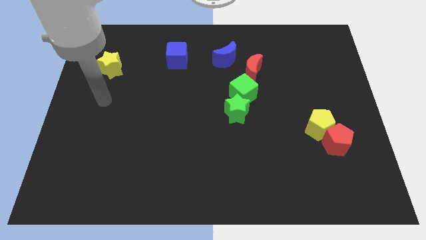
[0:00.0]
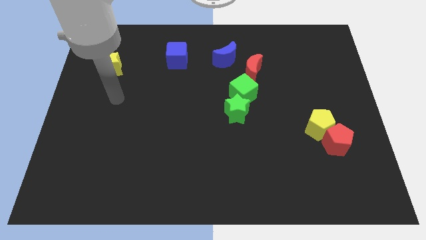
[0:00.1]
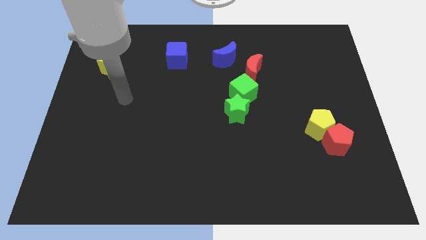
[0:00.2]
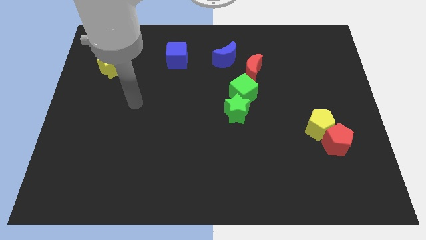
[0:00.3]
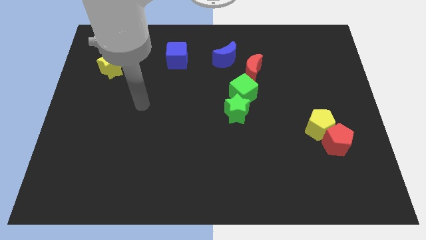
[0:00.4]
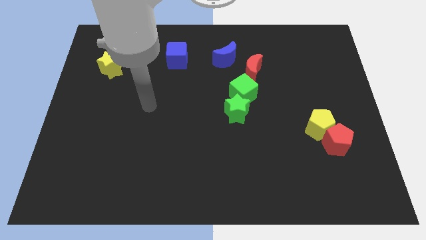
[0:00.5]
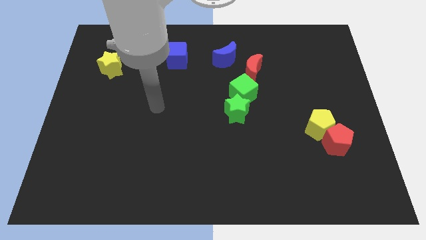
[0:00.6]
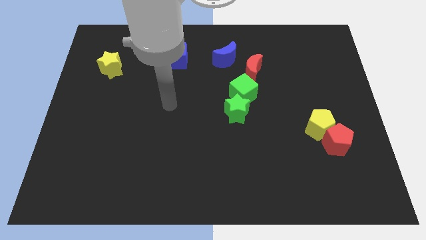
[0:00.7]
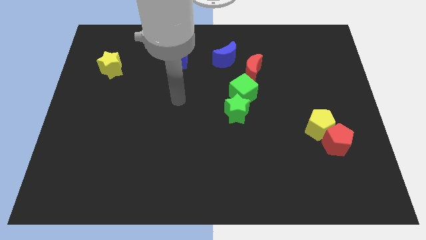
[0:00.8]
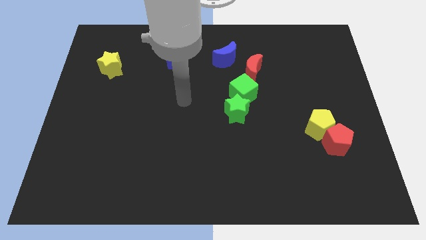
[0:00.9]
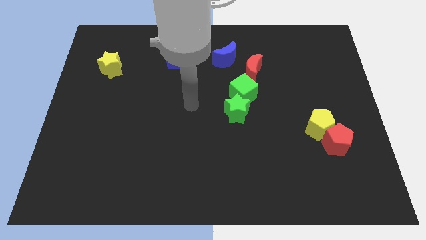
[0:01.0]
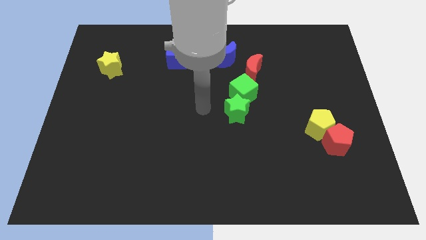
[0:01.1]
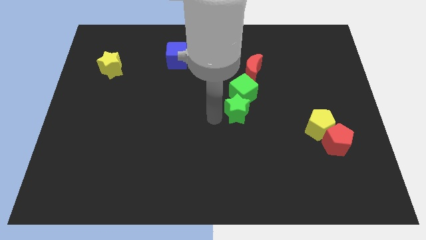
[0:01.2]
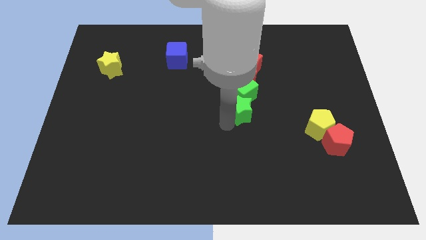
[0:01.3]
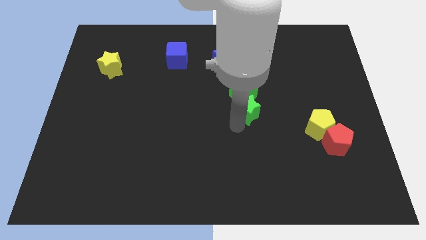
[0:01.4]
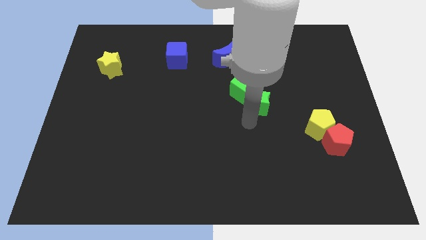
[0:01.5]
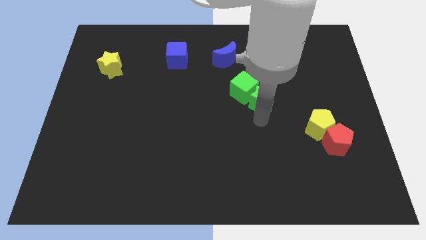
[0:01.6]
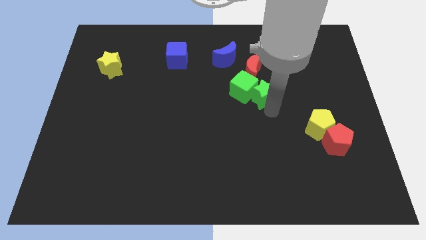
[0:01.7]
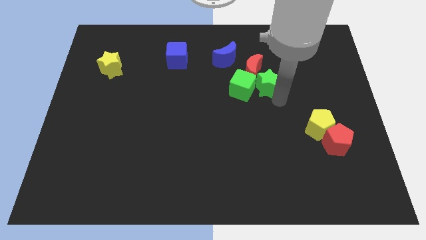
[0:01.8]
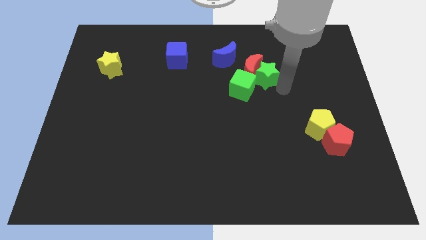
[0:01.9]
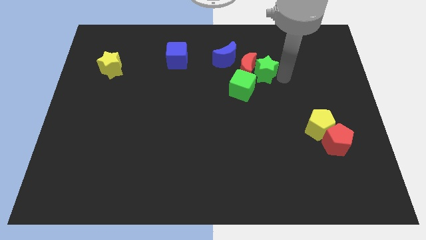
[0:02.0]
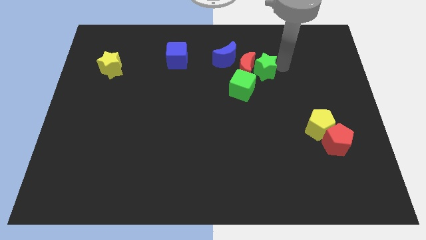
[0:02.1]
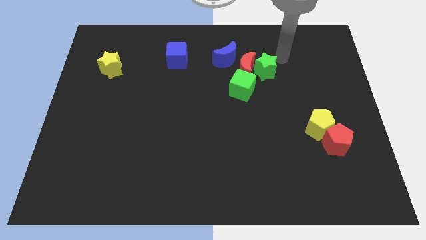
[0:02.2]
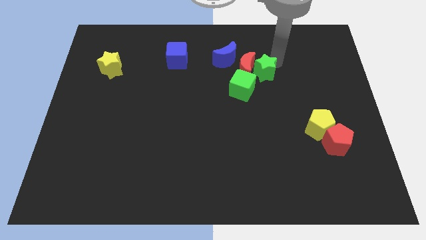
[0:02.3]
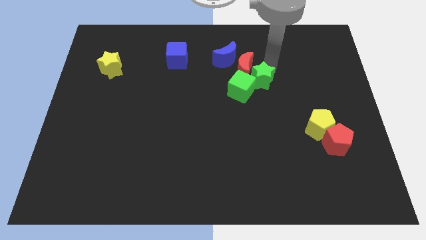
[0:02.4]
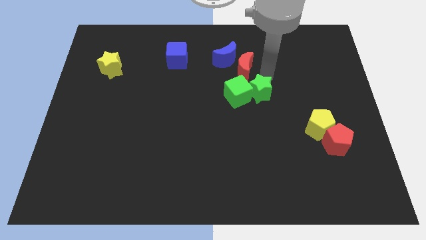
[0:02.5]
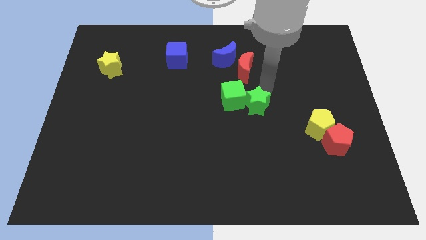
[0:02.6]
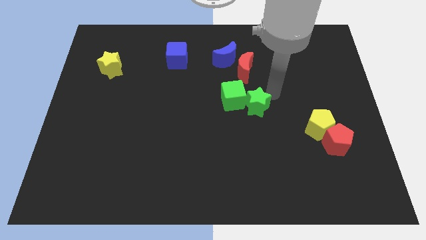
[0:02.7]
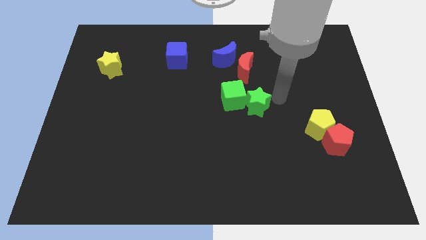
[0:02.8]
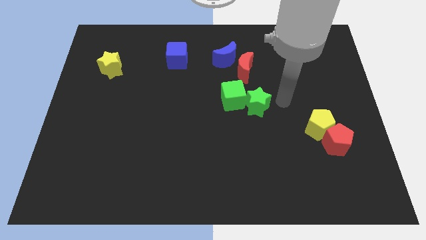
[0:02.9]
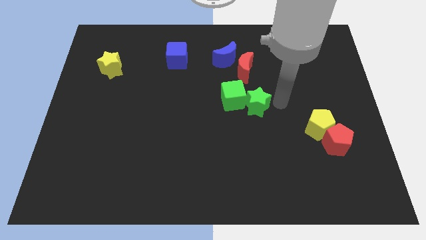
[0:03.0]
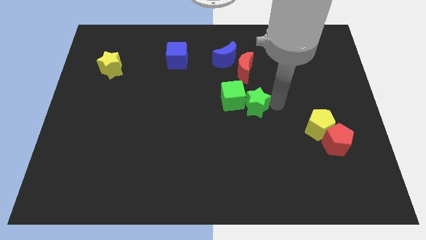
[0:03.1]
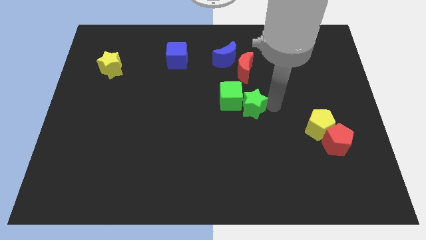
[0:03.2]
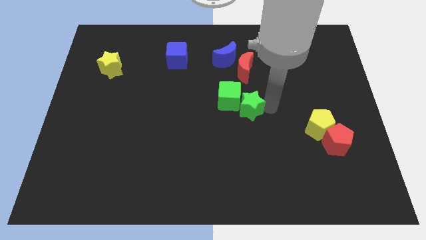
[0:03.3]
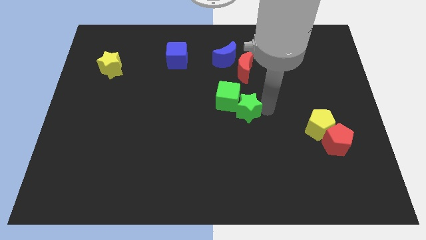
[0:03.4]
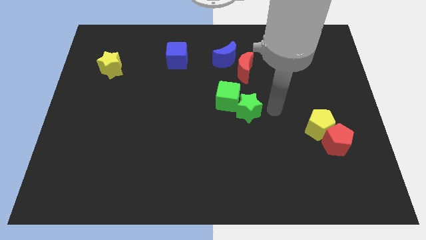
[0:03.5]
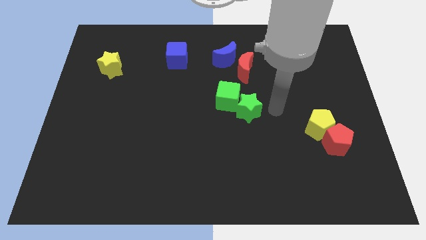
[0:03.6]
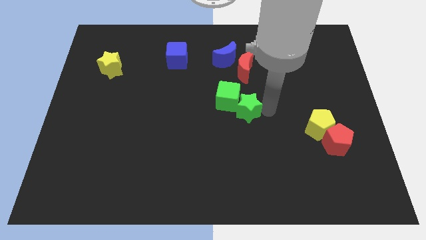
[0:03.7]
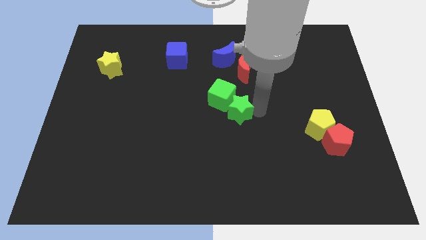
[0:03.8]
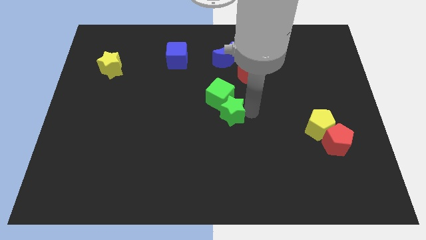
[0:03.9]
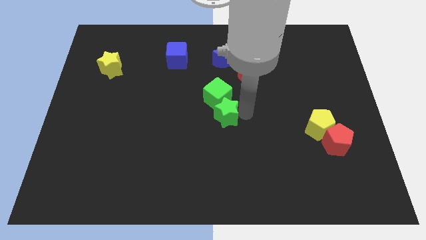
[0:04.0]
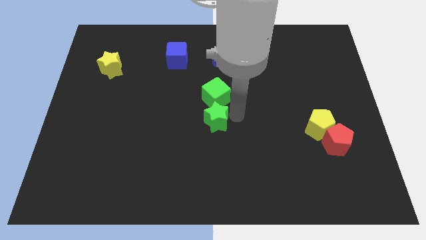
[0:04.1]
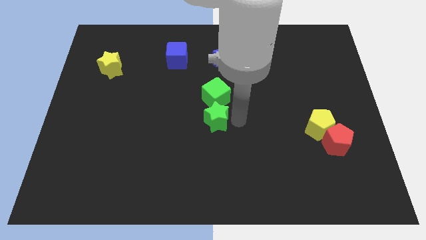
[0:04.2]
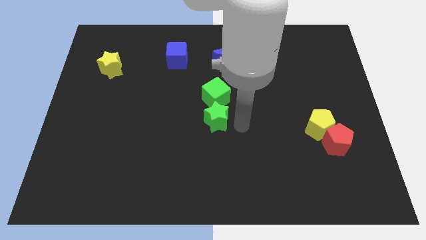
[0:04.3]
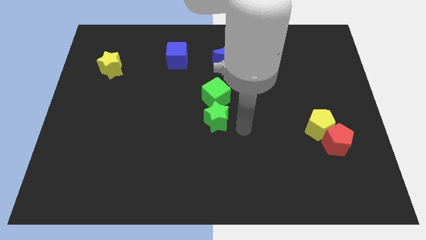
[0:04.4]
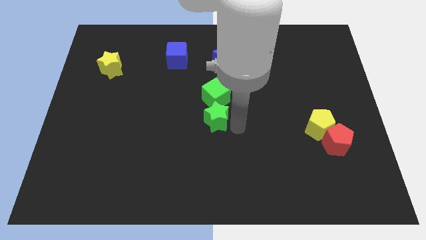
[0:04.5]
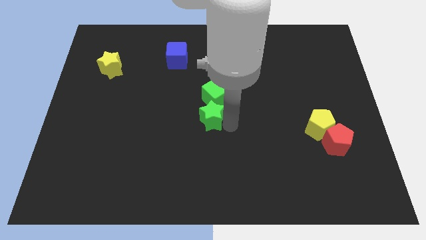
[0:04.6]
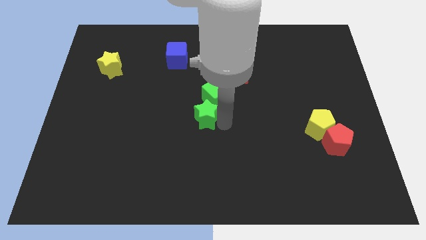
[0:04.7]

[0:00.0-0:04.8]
slightly push the green star left

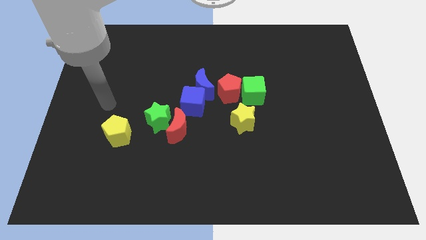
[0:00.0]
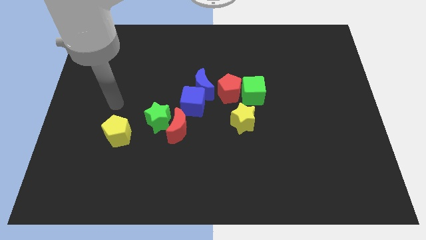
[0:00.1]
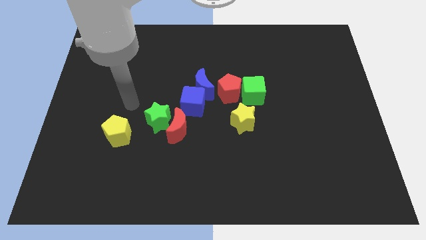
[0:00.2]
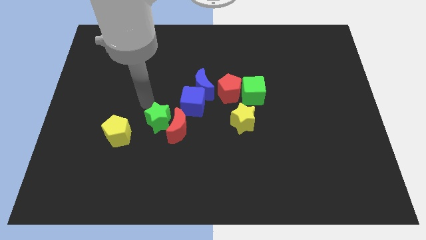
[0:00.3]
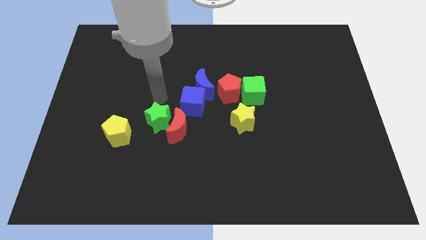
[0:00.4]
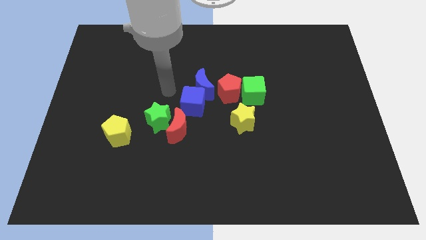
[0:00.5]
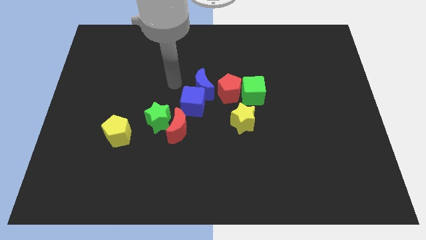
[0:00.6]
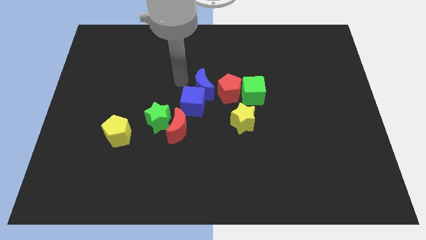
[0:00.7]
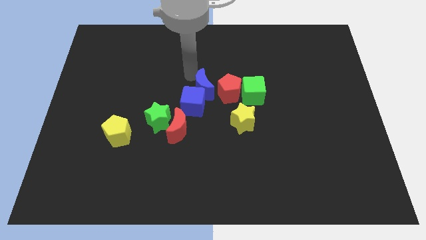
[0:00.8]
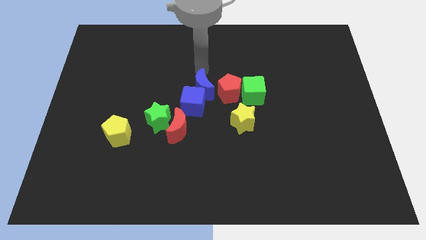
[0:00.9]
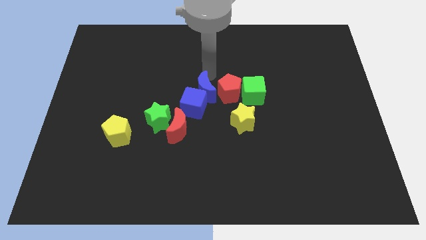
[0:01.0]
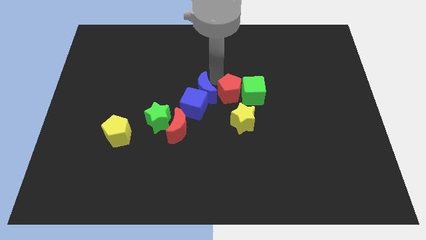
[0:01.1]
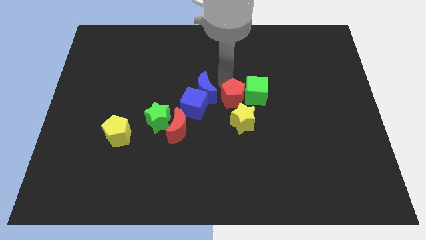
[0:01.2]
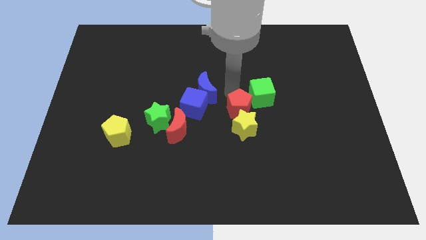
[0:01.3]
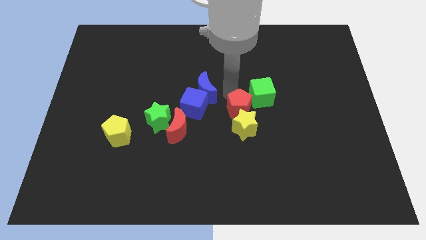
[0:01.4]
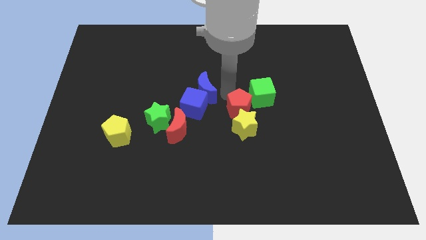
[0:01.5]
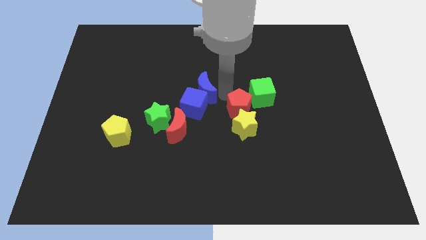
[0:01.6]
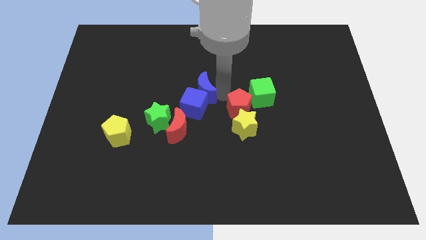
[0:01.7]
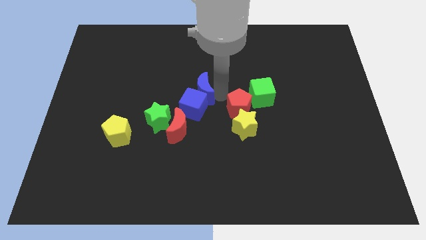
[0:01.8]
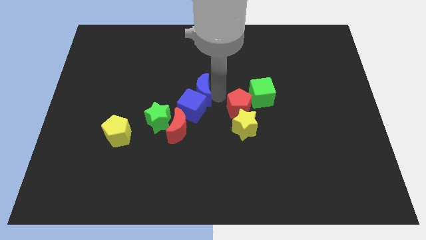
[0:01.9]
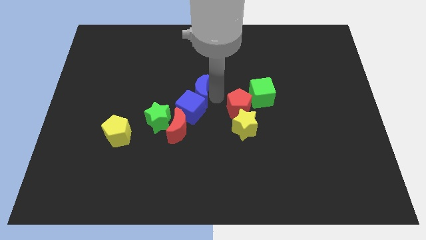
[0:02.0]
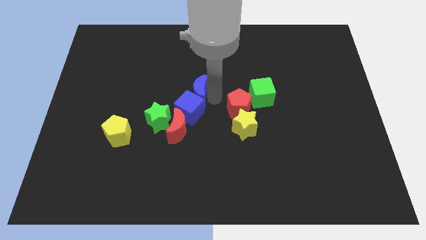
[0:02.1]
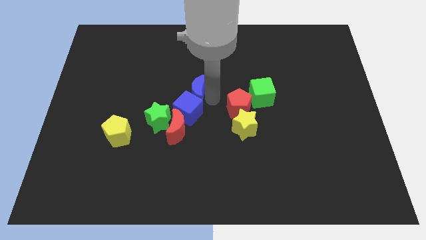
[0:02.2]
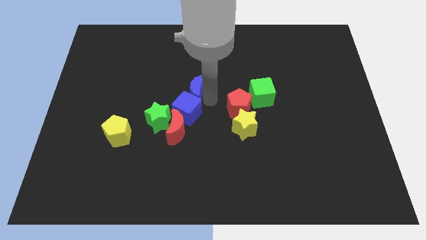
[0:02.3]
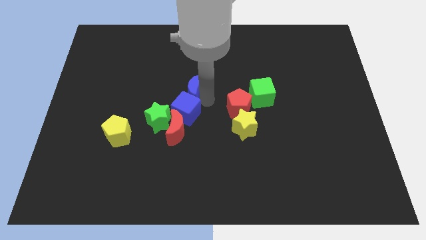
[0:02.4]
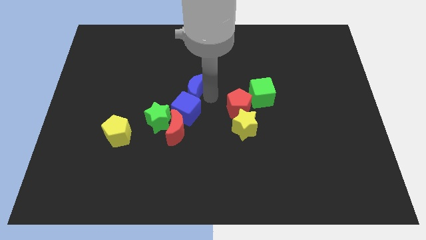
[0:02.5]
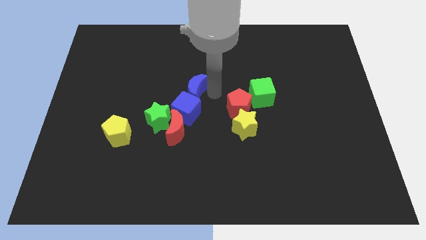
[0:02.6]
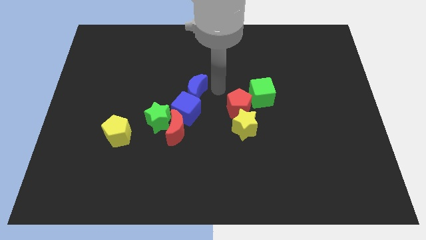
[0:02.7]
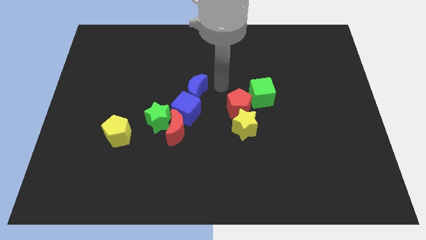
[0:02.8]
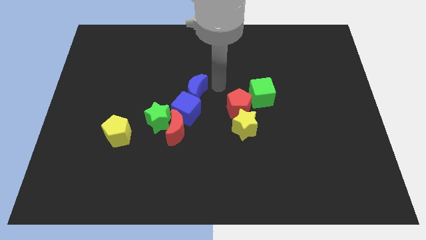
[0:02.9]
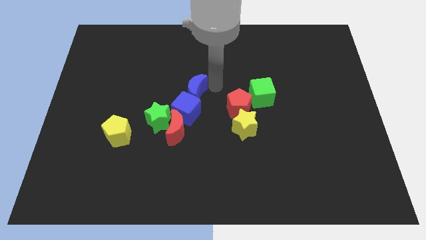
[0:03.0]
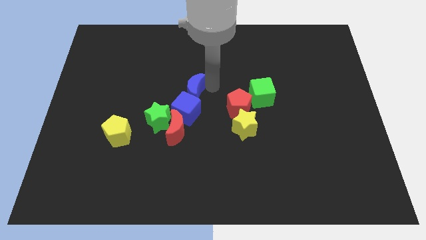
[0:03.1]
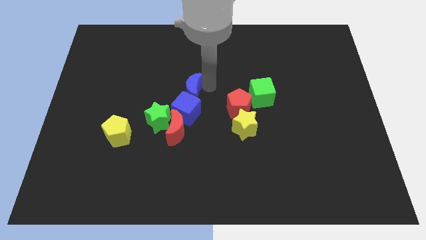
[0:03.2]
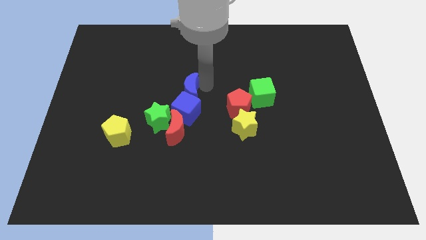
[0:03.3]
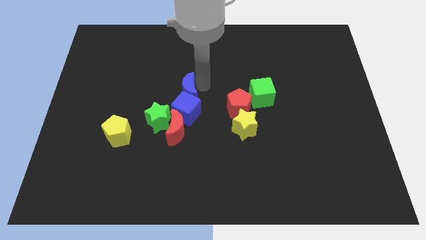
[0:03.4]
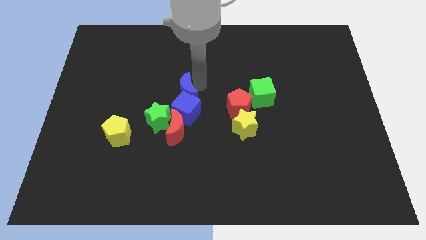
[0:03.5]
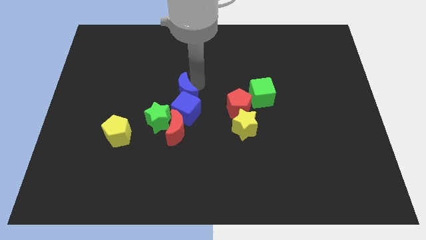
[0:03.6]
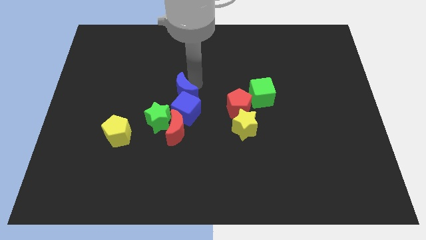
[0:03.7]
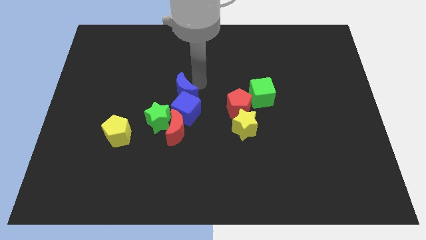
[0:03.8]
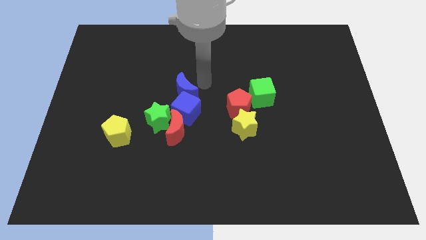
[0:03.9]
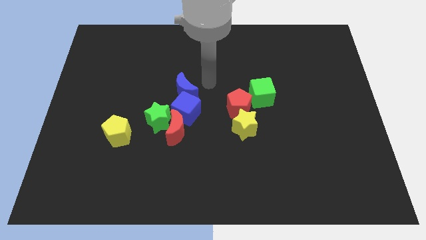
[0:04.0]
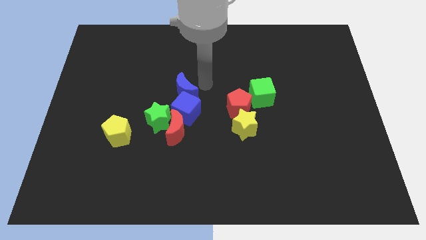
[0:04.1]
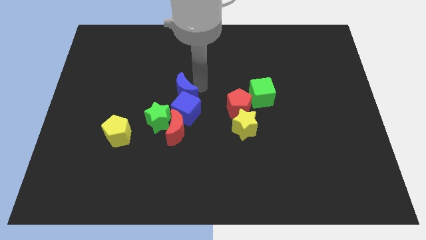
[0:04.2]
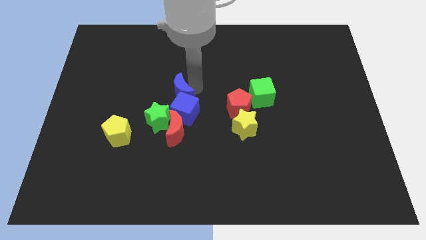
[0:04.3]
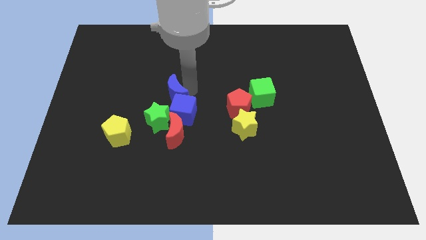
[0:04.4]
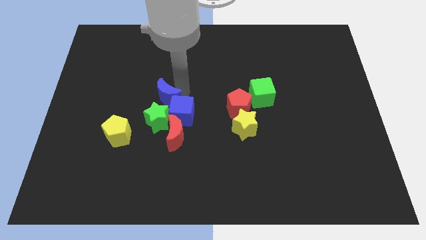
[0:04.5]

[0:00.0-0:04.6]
push the blue moon a bit diagonally down and to the left
